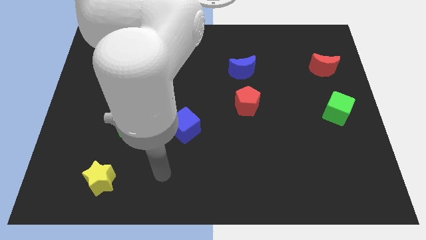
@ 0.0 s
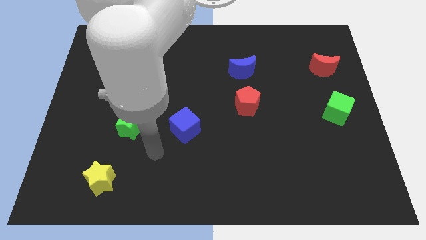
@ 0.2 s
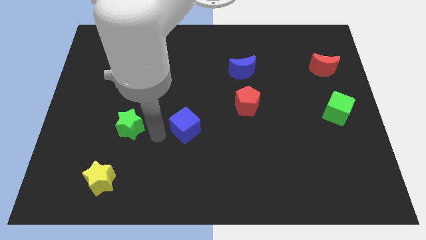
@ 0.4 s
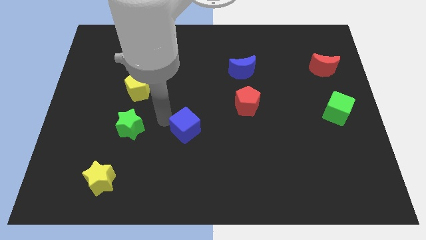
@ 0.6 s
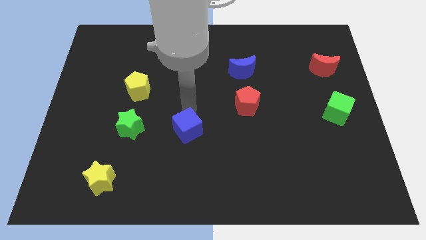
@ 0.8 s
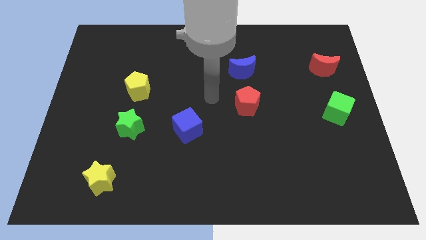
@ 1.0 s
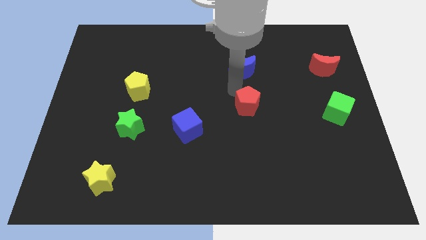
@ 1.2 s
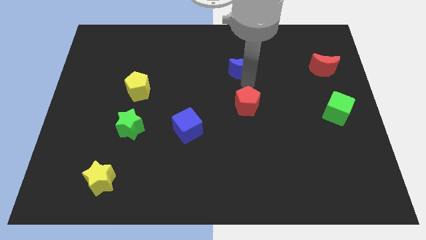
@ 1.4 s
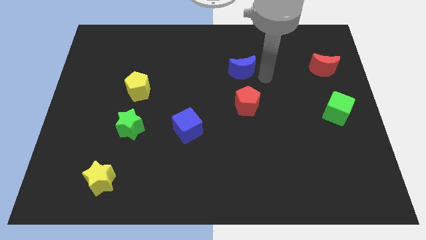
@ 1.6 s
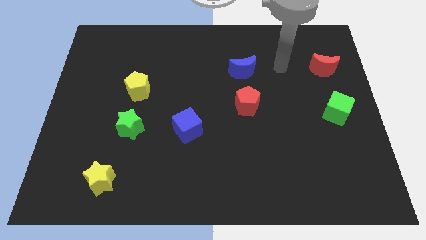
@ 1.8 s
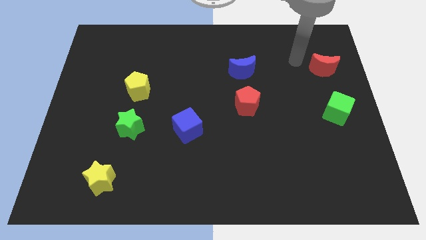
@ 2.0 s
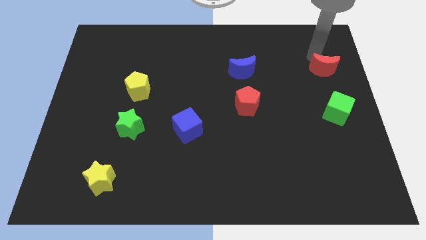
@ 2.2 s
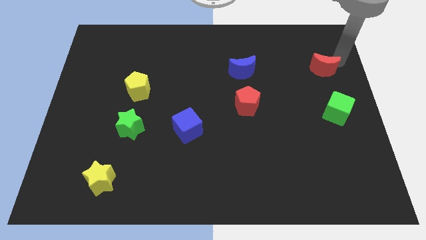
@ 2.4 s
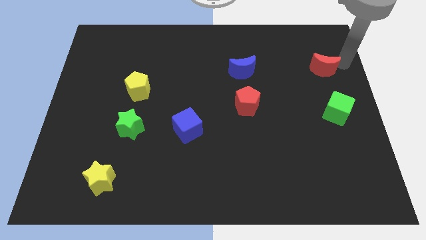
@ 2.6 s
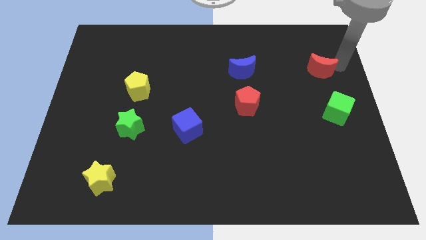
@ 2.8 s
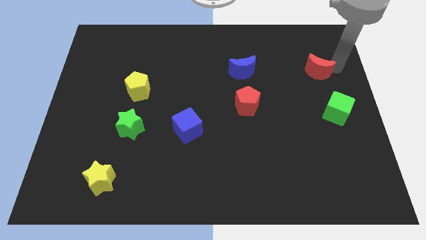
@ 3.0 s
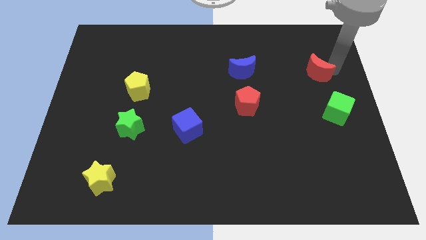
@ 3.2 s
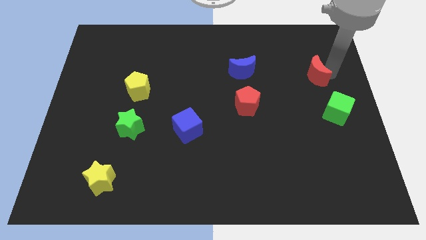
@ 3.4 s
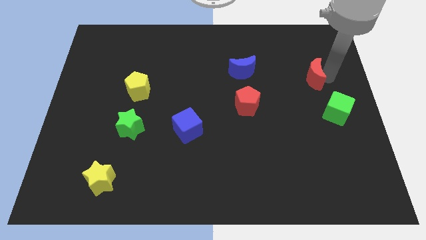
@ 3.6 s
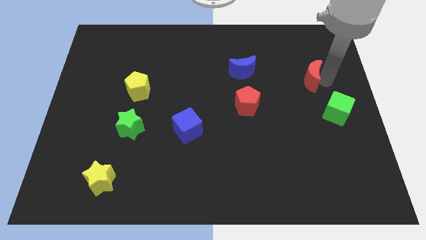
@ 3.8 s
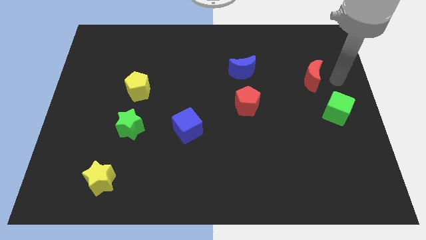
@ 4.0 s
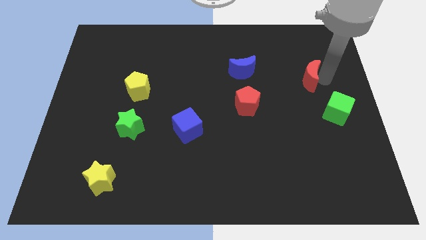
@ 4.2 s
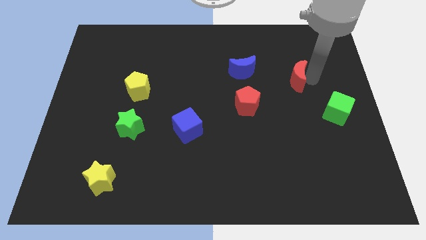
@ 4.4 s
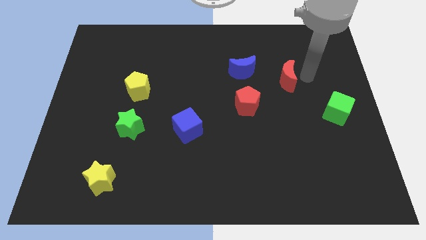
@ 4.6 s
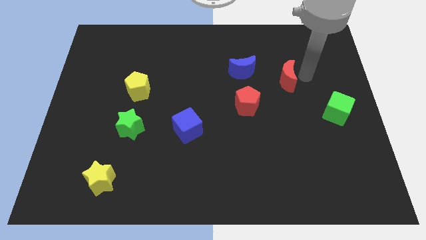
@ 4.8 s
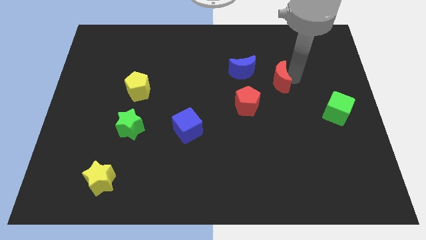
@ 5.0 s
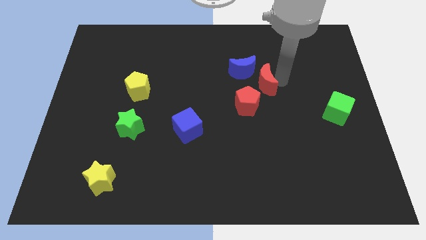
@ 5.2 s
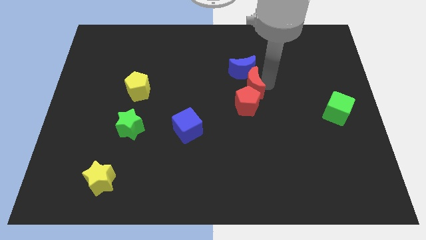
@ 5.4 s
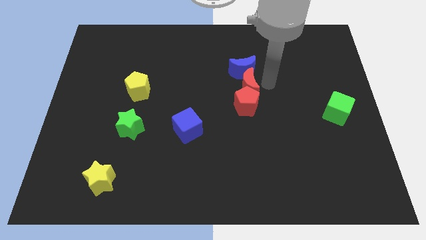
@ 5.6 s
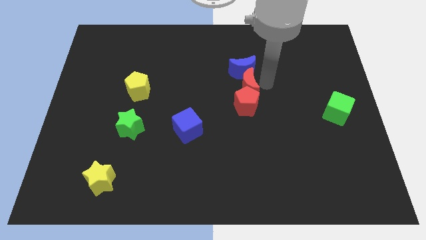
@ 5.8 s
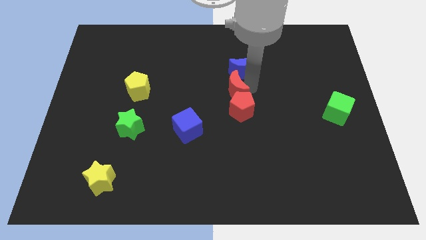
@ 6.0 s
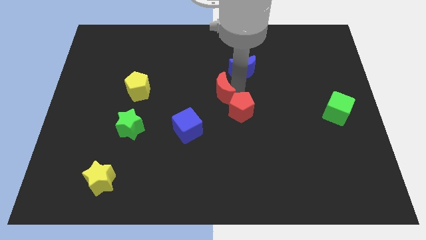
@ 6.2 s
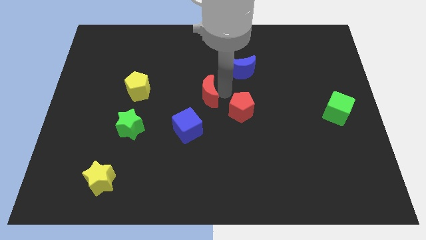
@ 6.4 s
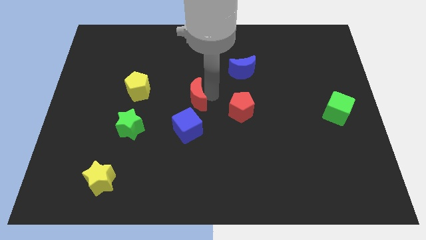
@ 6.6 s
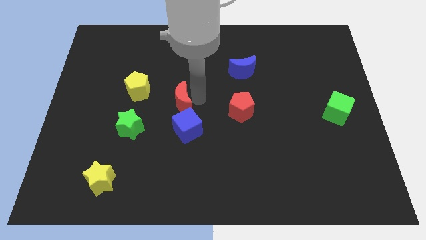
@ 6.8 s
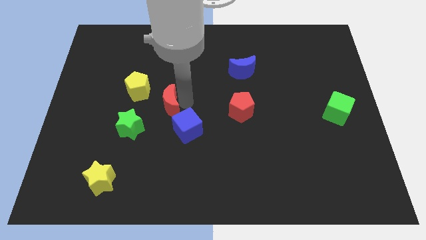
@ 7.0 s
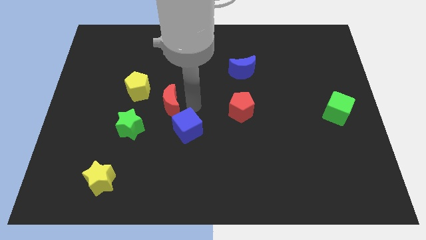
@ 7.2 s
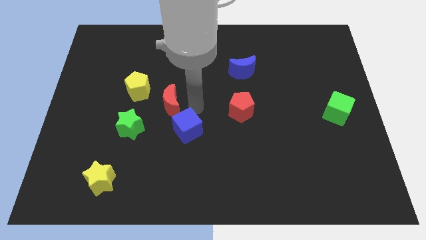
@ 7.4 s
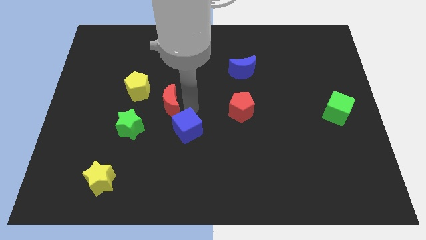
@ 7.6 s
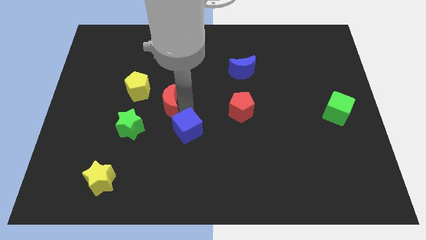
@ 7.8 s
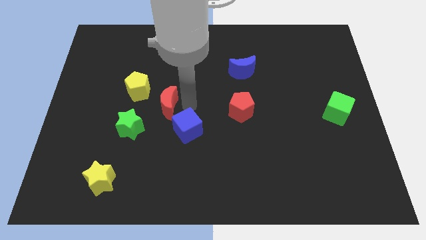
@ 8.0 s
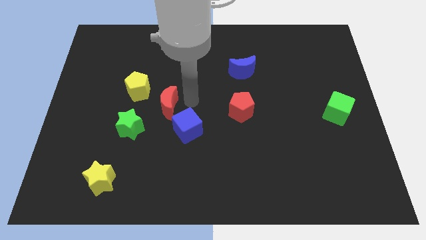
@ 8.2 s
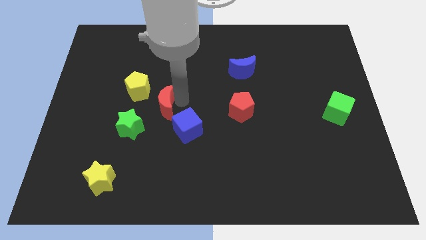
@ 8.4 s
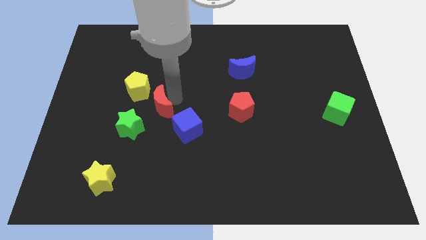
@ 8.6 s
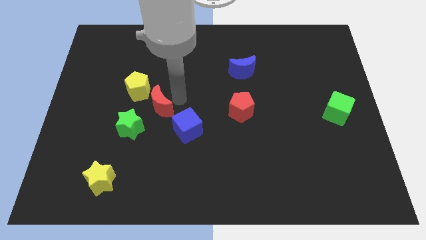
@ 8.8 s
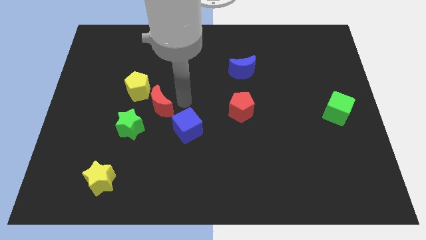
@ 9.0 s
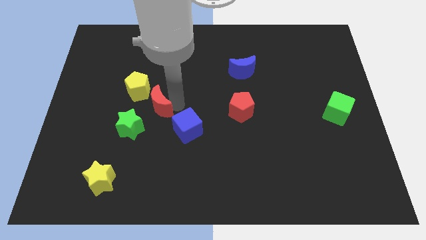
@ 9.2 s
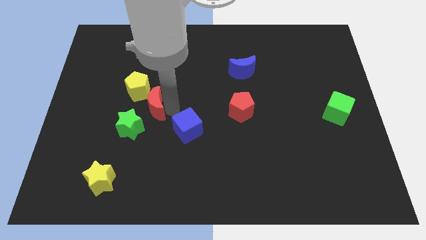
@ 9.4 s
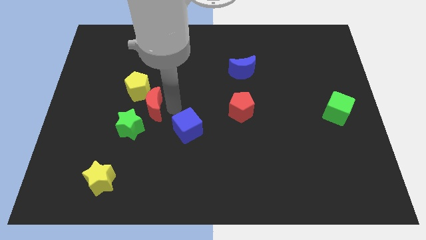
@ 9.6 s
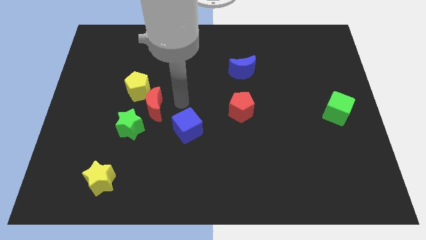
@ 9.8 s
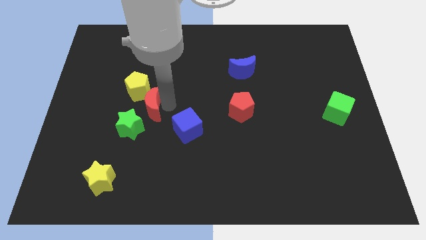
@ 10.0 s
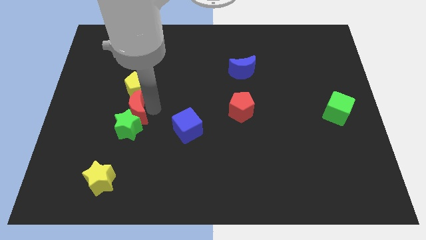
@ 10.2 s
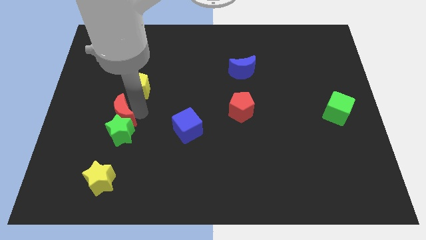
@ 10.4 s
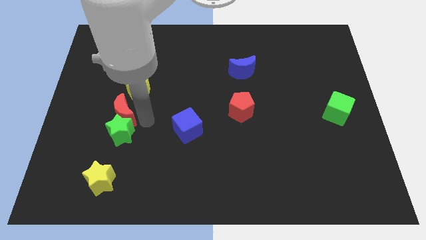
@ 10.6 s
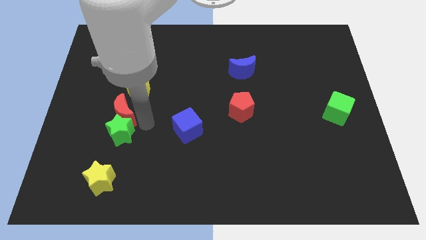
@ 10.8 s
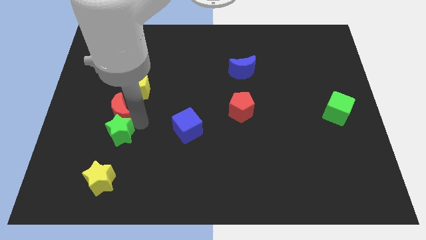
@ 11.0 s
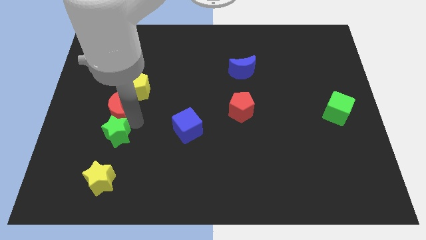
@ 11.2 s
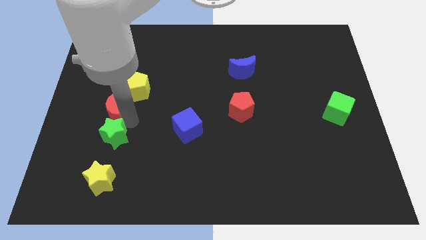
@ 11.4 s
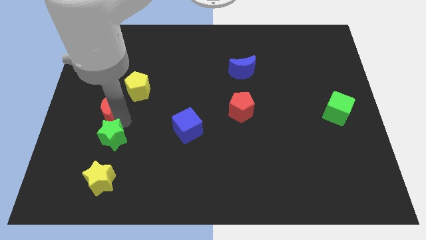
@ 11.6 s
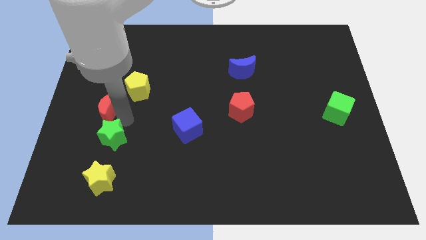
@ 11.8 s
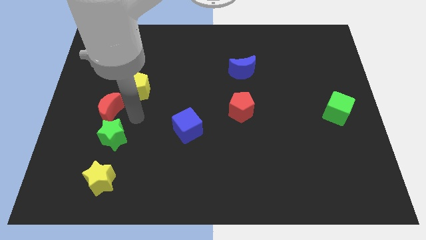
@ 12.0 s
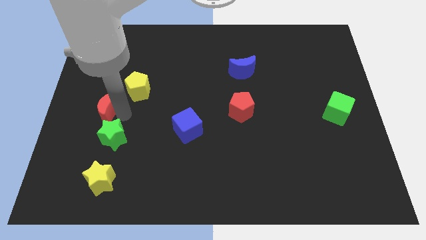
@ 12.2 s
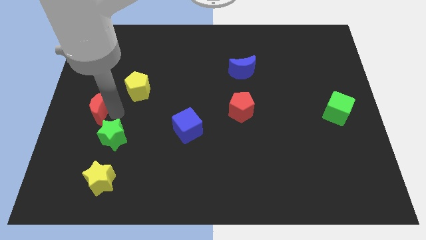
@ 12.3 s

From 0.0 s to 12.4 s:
put the red moon to the left side

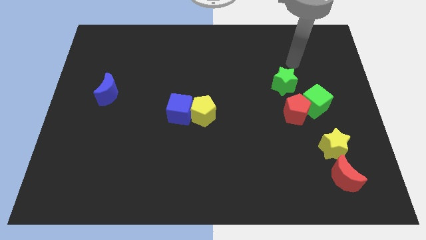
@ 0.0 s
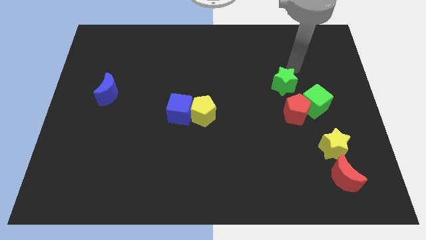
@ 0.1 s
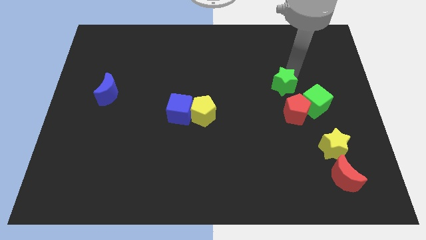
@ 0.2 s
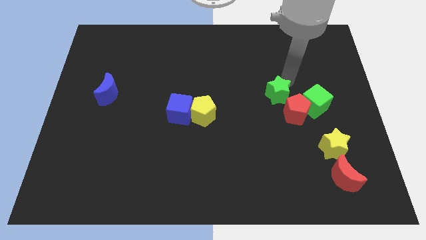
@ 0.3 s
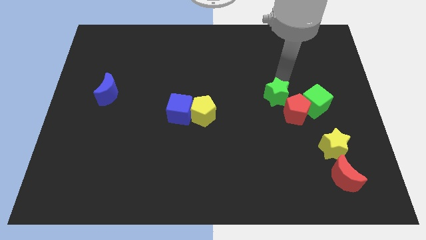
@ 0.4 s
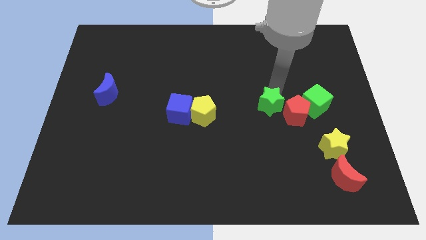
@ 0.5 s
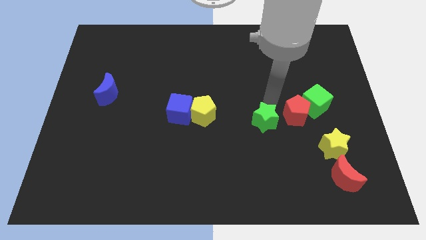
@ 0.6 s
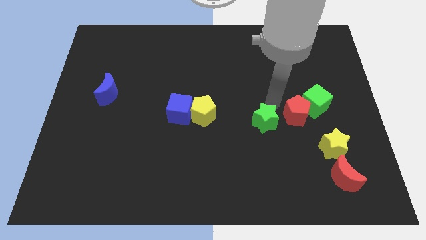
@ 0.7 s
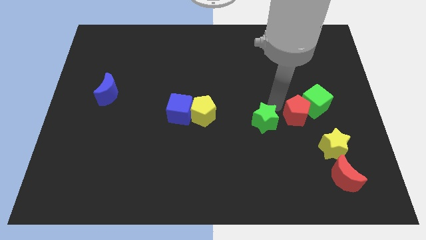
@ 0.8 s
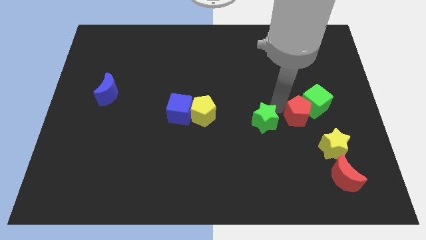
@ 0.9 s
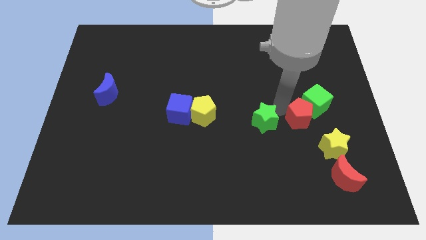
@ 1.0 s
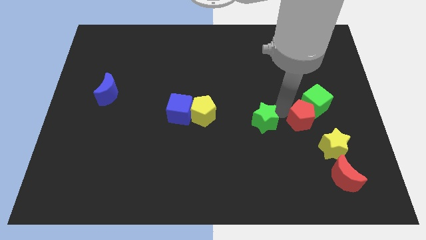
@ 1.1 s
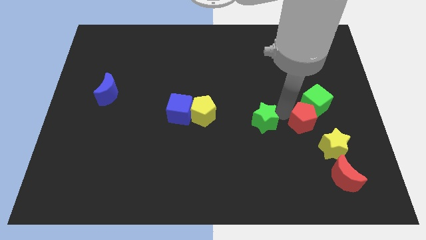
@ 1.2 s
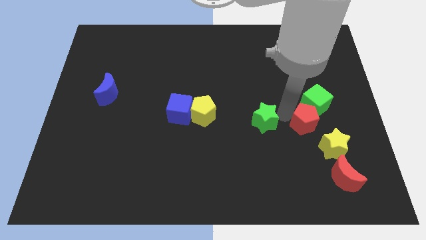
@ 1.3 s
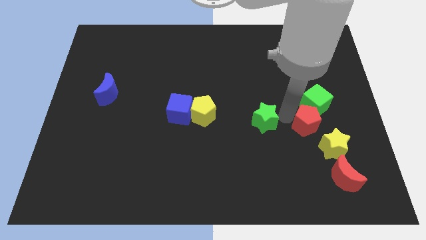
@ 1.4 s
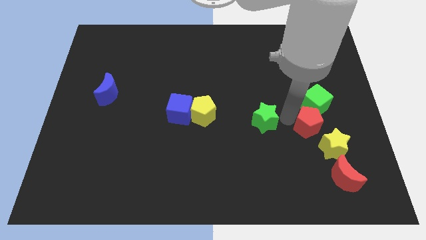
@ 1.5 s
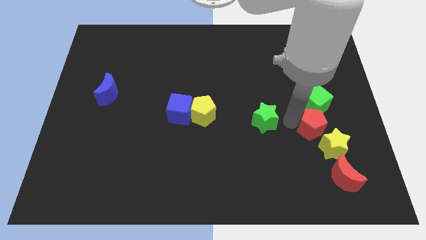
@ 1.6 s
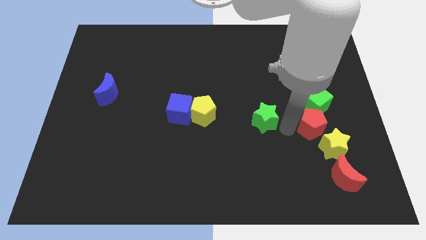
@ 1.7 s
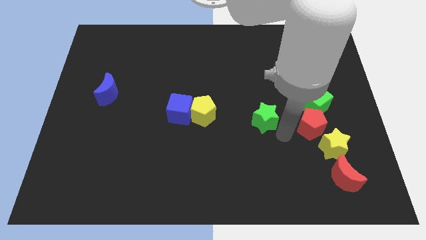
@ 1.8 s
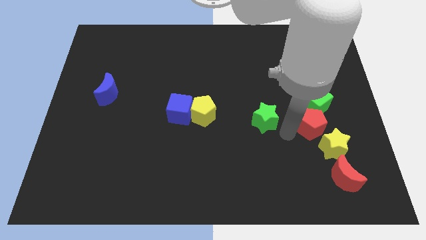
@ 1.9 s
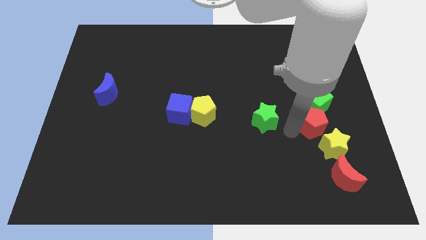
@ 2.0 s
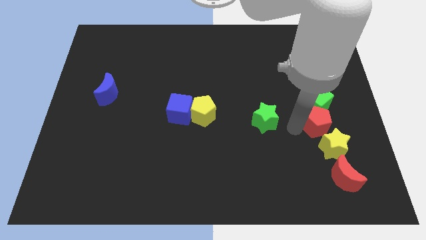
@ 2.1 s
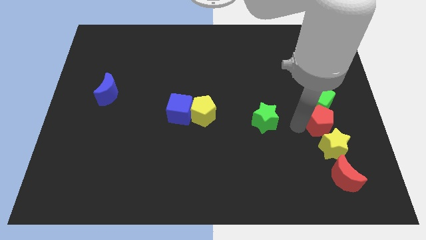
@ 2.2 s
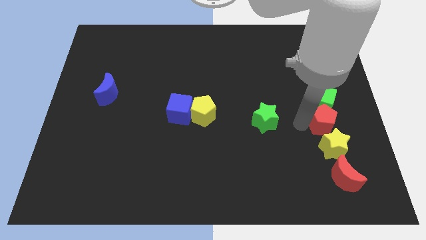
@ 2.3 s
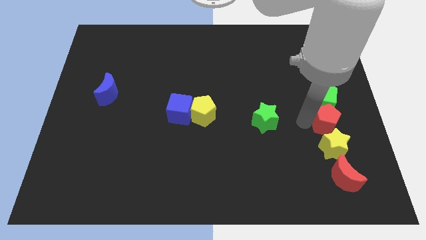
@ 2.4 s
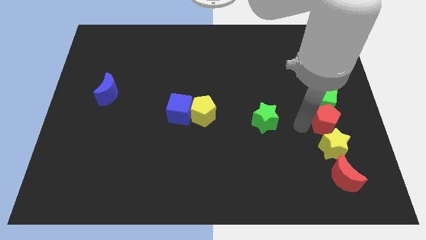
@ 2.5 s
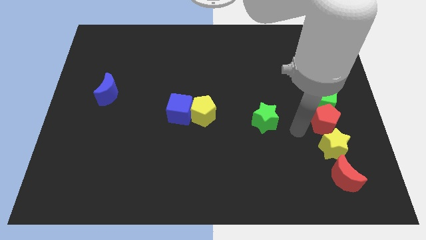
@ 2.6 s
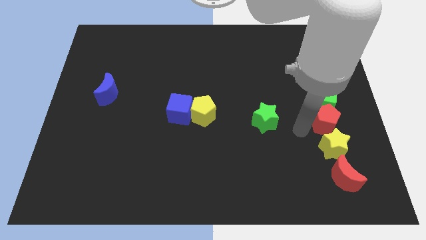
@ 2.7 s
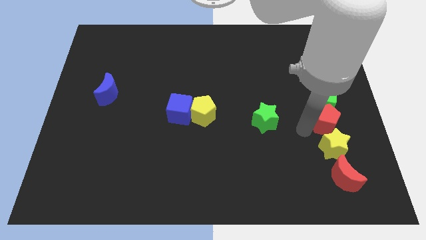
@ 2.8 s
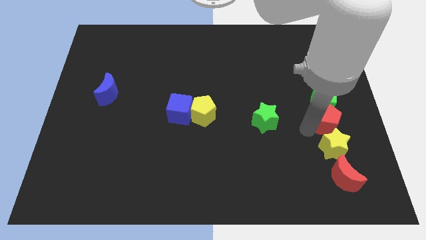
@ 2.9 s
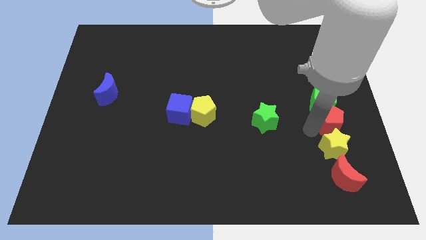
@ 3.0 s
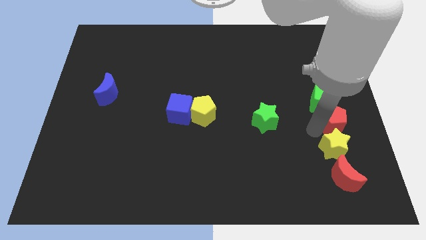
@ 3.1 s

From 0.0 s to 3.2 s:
push the red pentagon to the center right
